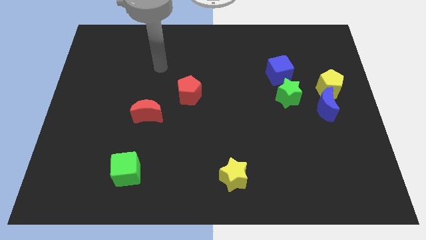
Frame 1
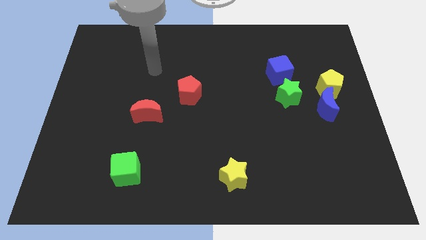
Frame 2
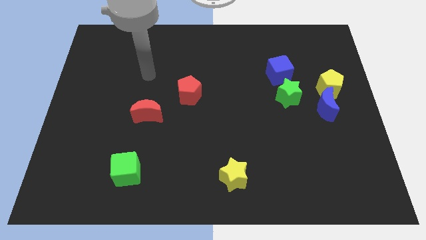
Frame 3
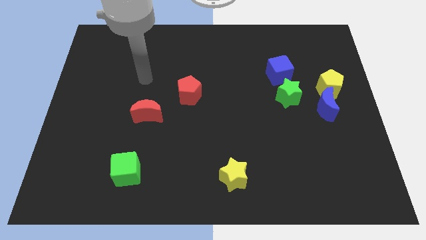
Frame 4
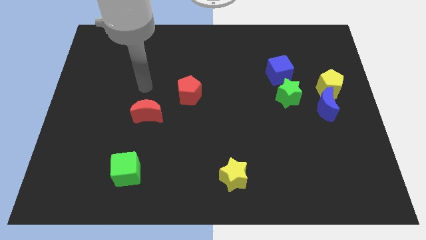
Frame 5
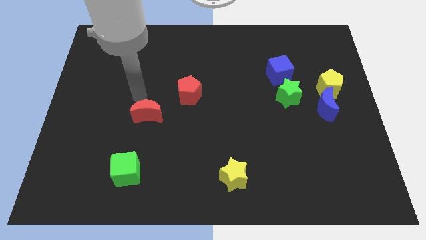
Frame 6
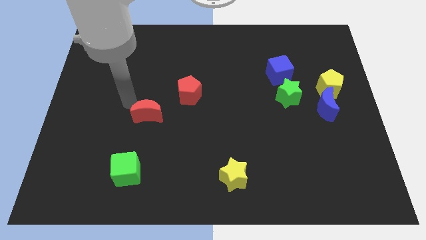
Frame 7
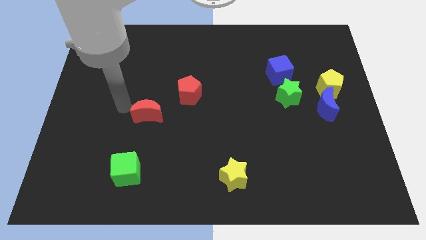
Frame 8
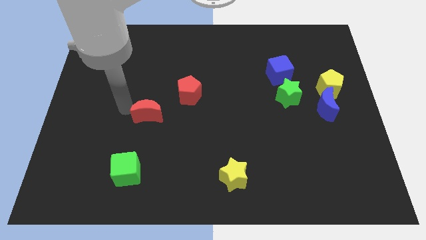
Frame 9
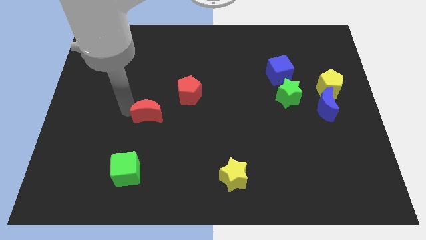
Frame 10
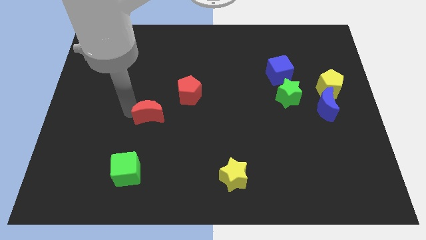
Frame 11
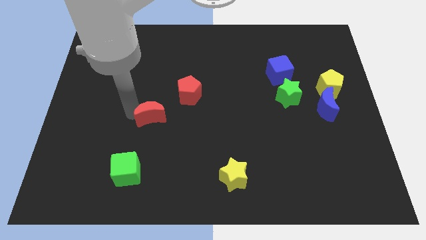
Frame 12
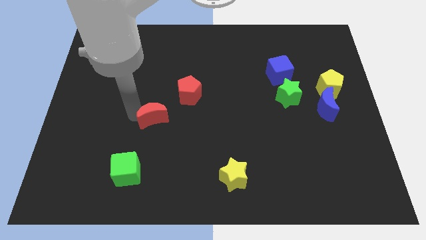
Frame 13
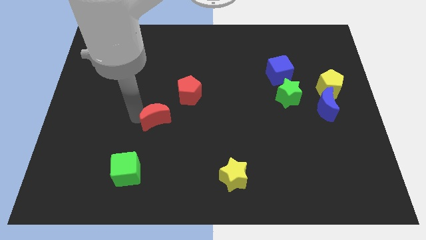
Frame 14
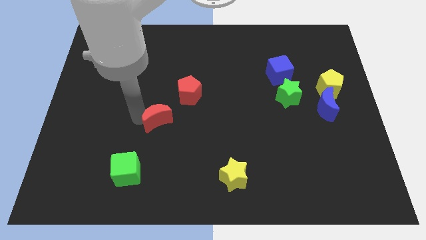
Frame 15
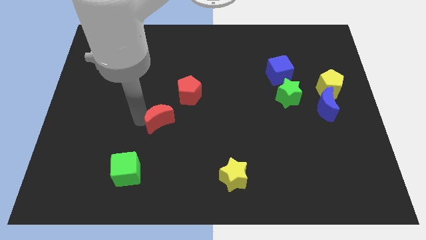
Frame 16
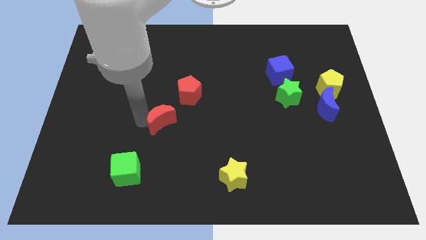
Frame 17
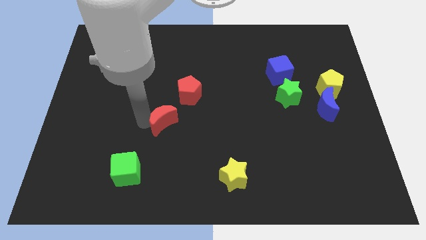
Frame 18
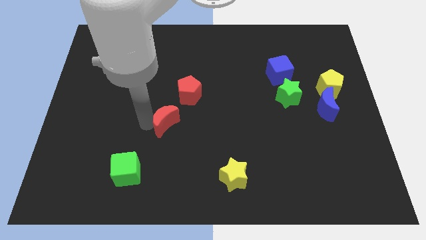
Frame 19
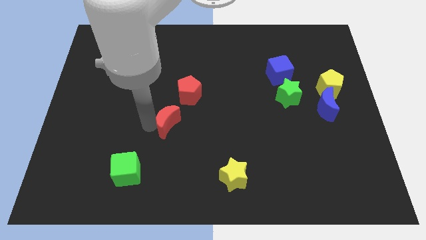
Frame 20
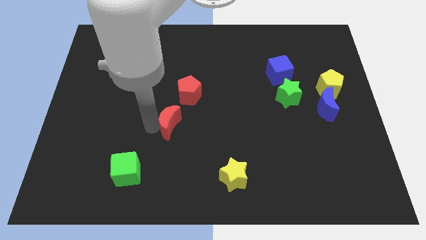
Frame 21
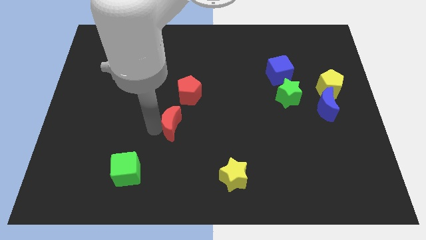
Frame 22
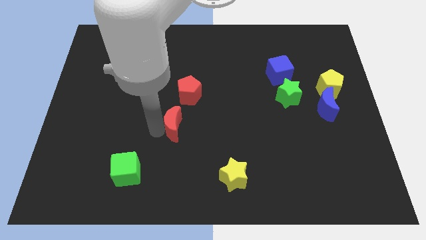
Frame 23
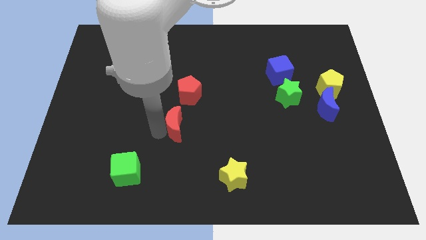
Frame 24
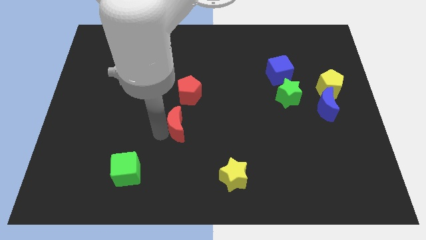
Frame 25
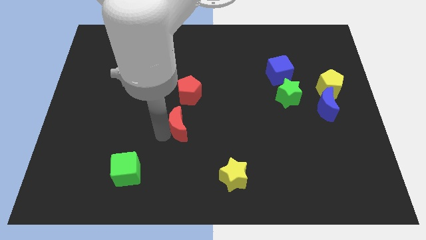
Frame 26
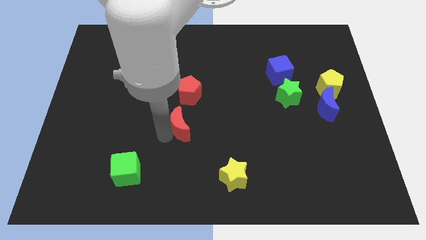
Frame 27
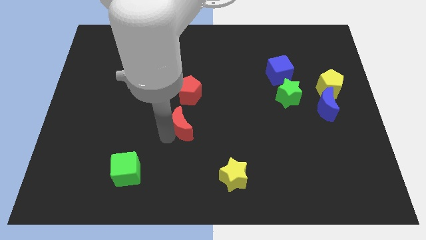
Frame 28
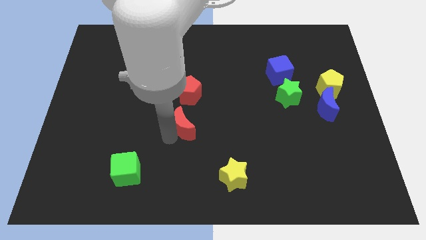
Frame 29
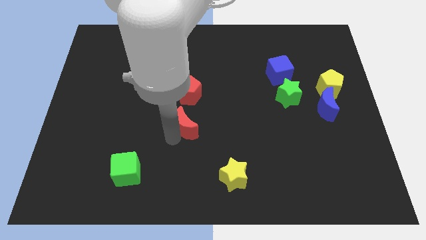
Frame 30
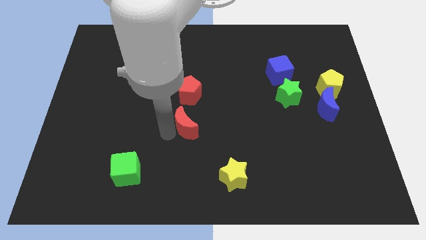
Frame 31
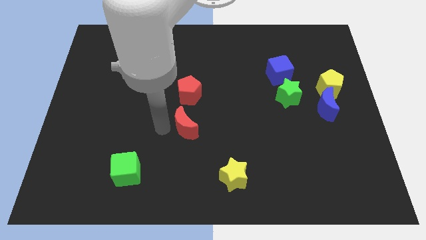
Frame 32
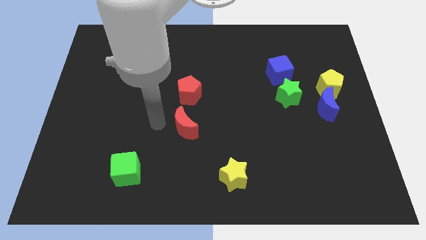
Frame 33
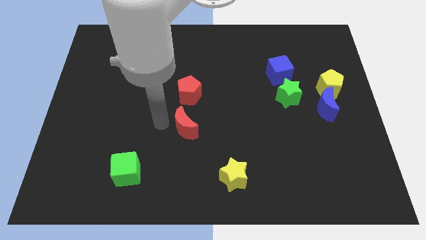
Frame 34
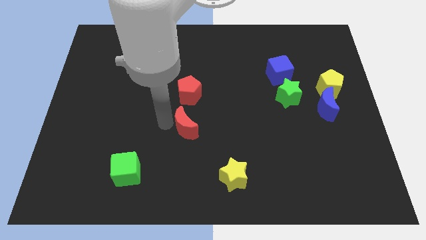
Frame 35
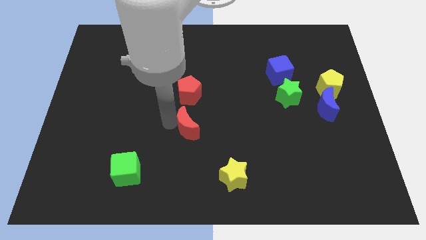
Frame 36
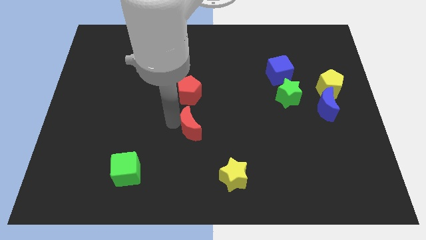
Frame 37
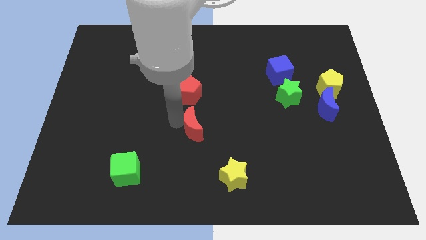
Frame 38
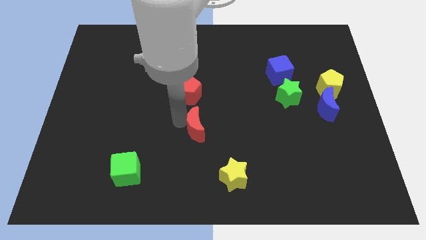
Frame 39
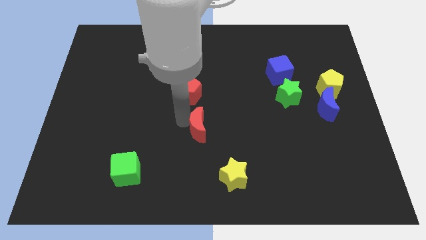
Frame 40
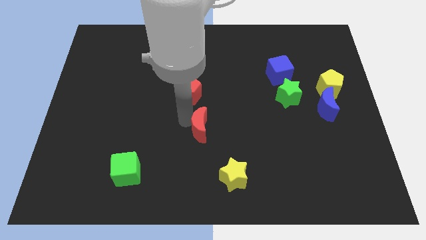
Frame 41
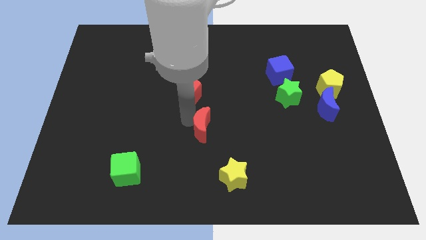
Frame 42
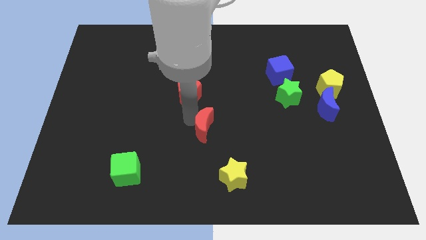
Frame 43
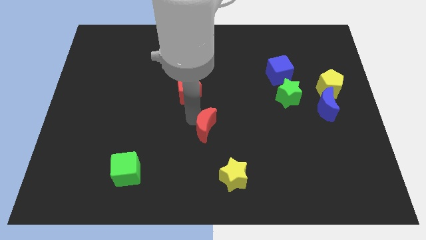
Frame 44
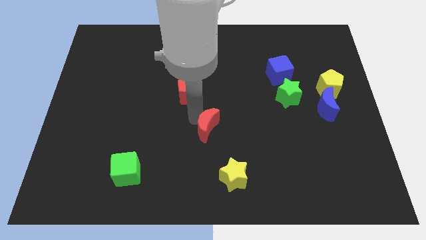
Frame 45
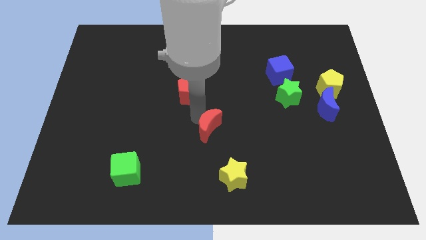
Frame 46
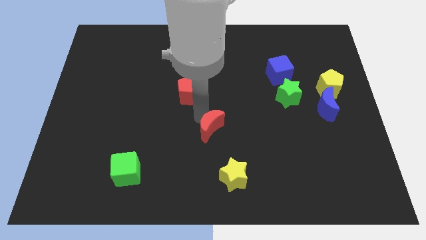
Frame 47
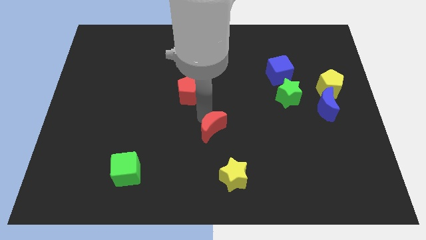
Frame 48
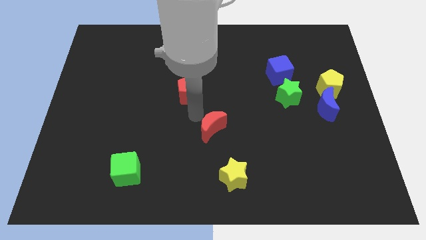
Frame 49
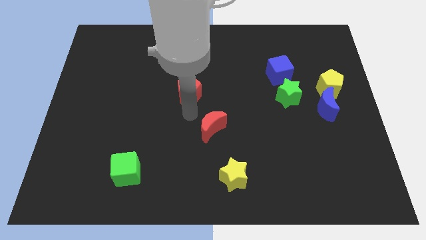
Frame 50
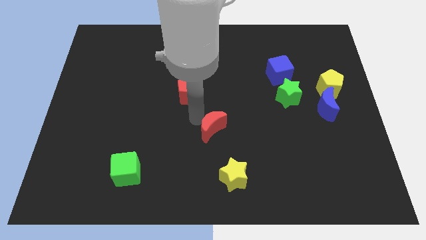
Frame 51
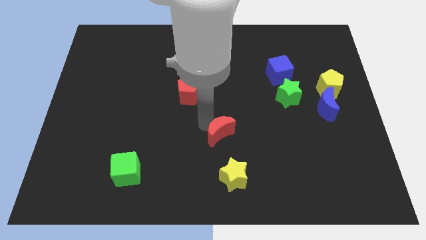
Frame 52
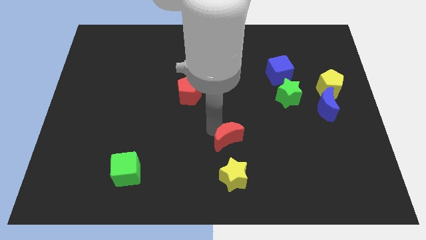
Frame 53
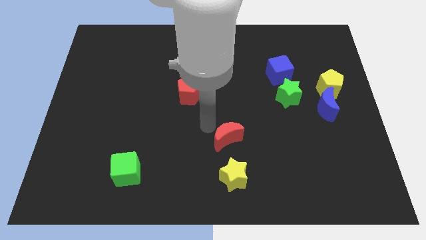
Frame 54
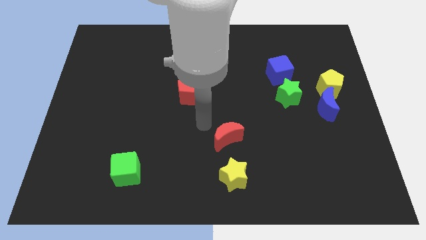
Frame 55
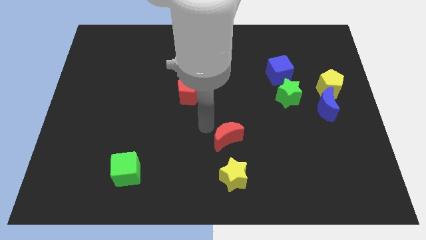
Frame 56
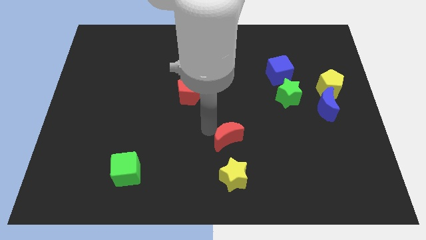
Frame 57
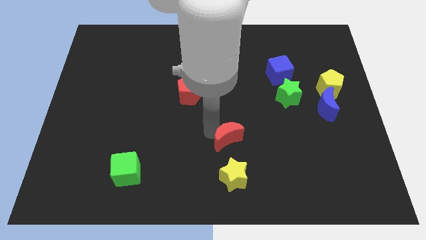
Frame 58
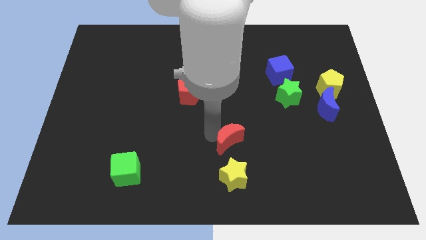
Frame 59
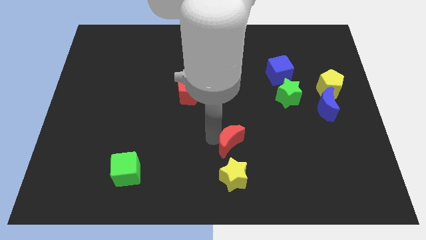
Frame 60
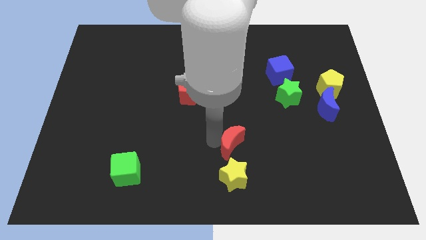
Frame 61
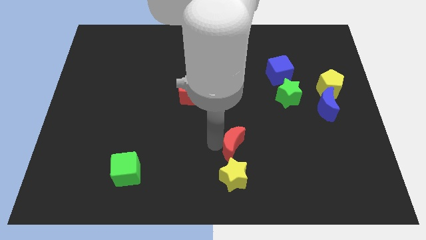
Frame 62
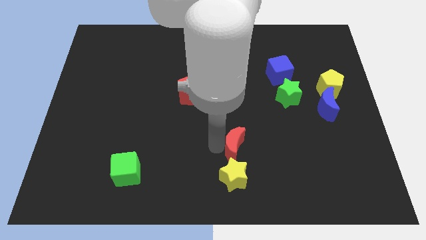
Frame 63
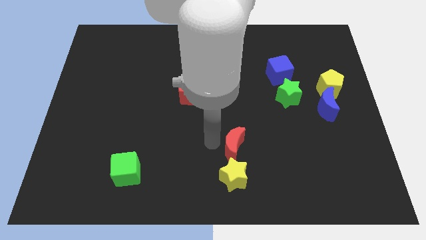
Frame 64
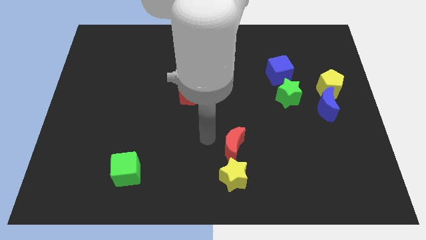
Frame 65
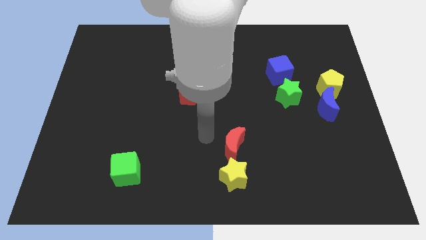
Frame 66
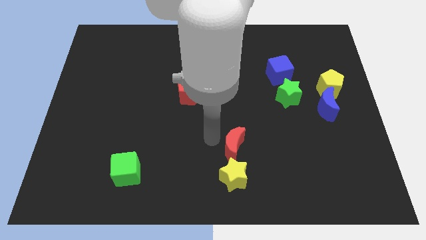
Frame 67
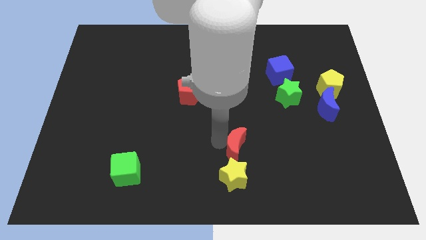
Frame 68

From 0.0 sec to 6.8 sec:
slide the red moon to the top right side of the yellow star

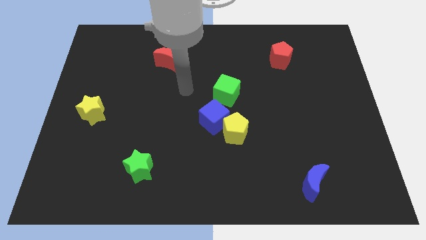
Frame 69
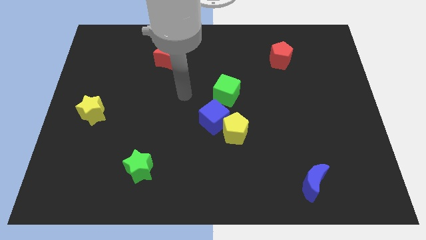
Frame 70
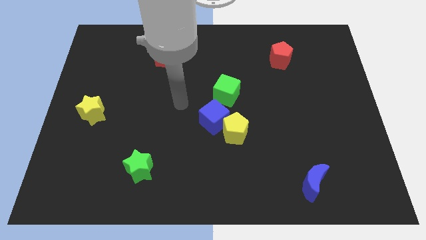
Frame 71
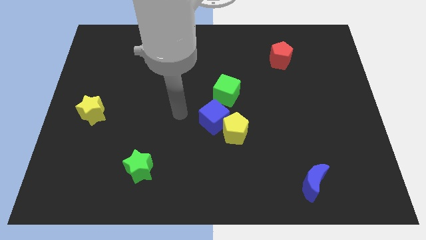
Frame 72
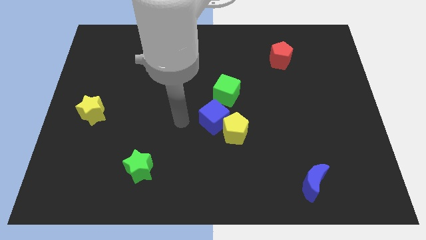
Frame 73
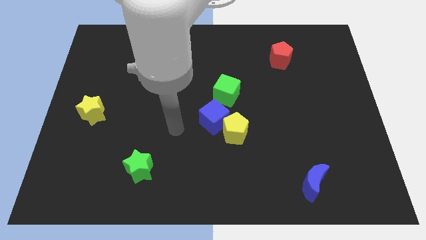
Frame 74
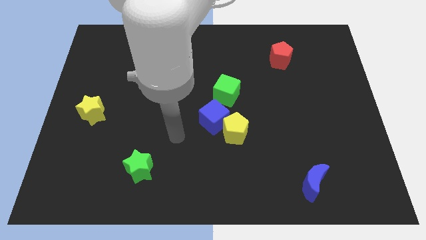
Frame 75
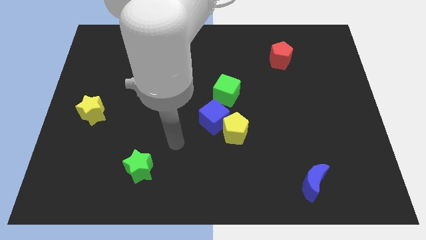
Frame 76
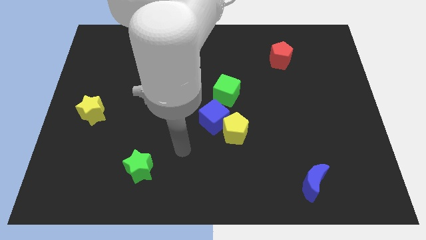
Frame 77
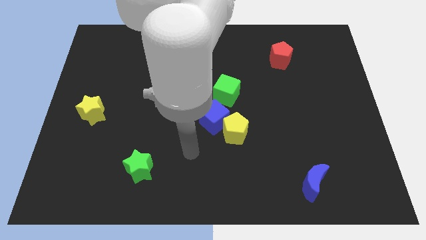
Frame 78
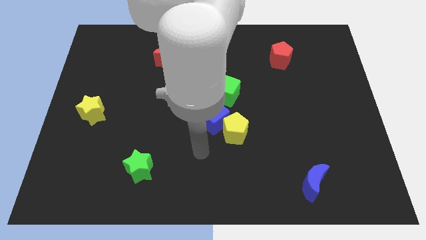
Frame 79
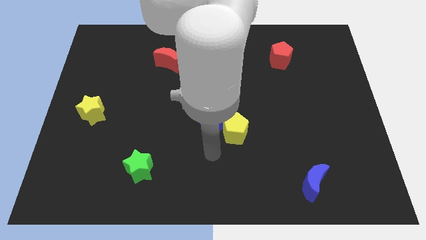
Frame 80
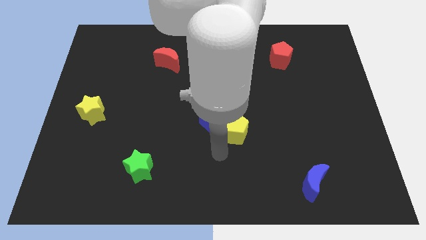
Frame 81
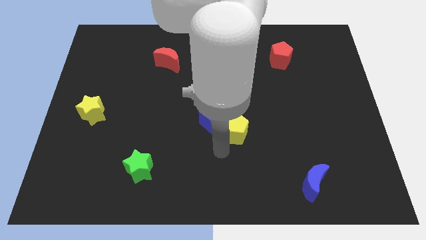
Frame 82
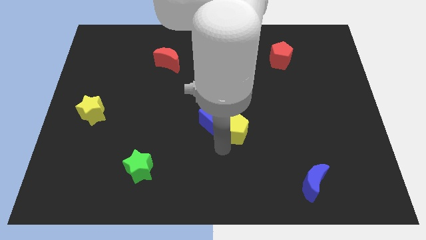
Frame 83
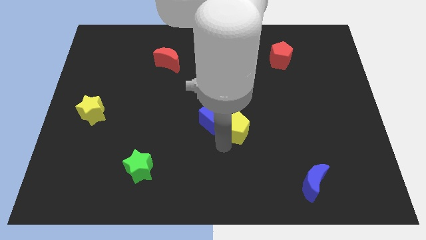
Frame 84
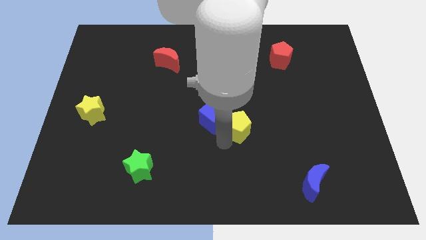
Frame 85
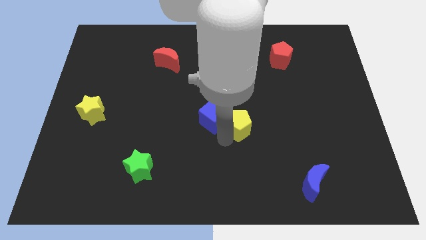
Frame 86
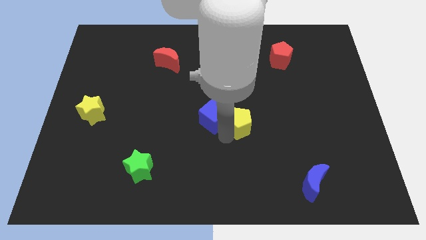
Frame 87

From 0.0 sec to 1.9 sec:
put the yellow pentagon to the bottom right side of the green cube
